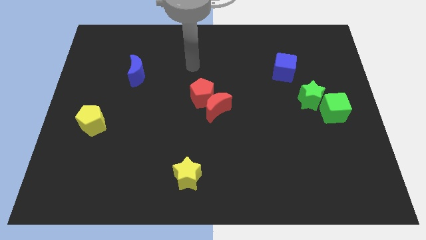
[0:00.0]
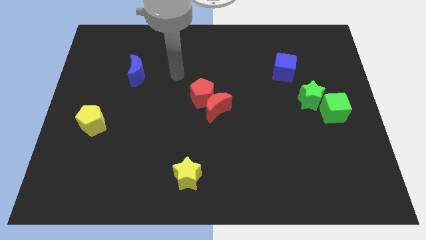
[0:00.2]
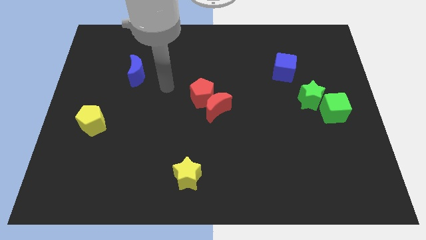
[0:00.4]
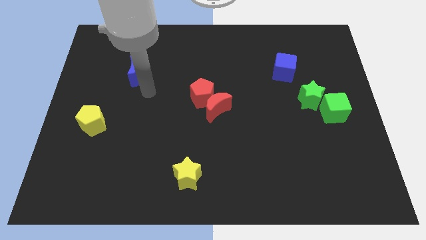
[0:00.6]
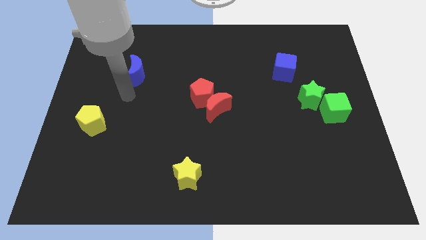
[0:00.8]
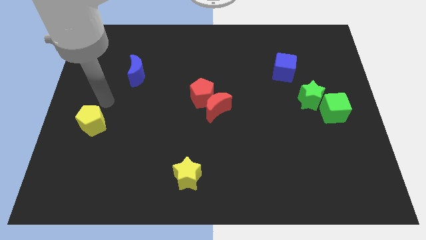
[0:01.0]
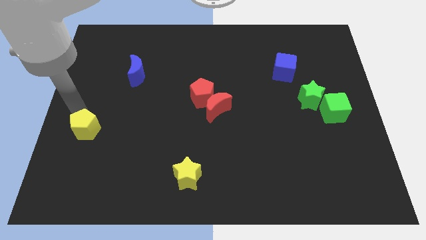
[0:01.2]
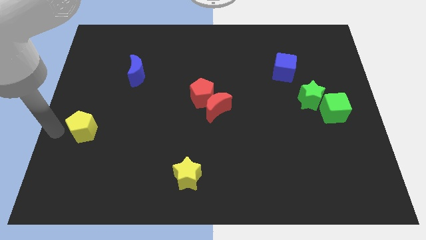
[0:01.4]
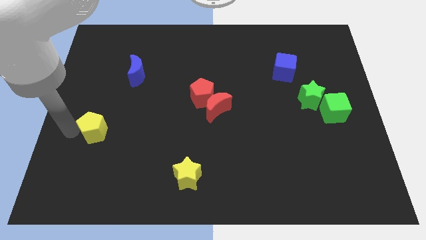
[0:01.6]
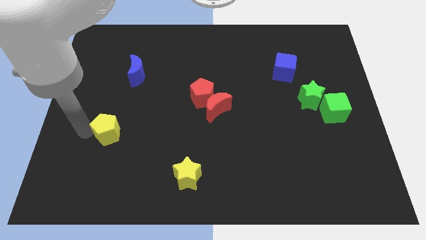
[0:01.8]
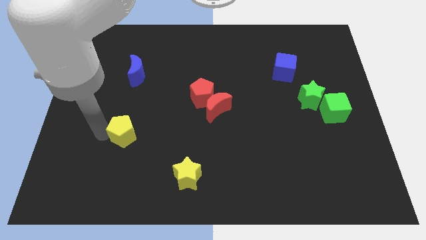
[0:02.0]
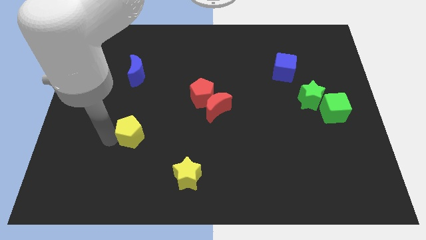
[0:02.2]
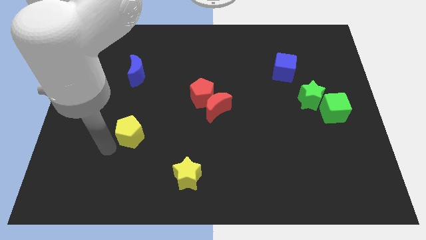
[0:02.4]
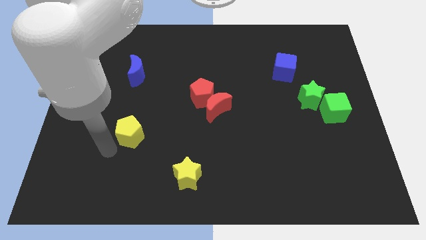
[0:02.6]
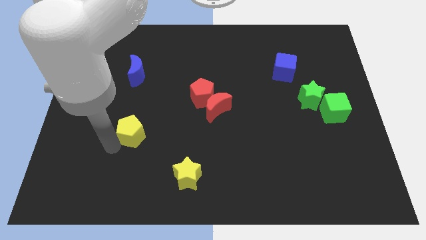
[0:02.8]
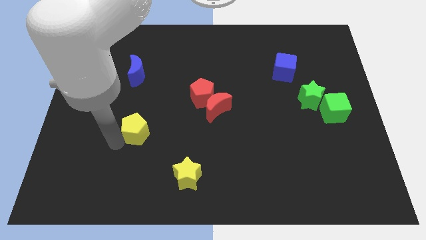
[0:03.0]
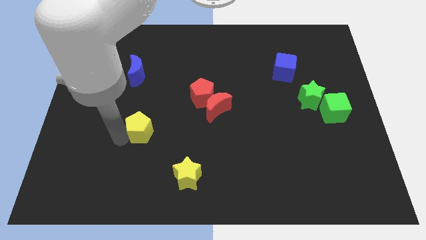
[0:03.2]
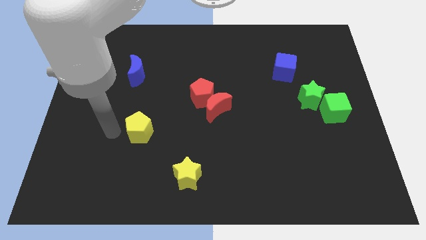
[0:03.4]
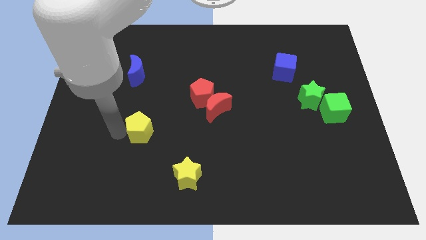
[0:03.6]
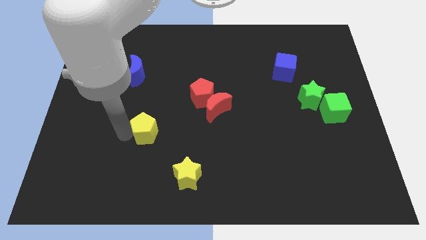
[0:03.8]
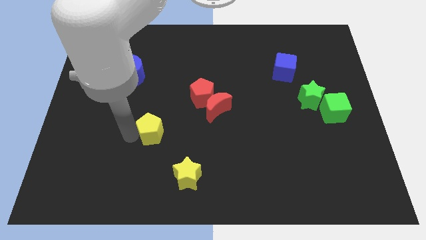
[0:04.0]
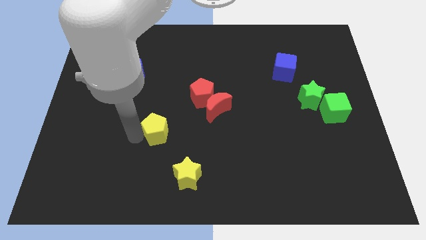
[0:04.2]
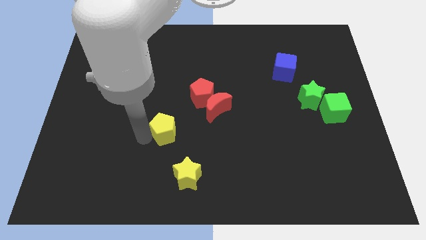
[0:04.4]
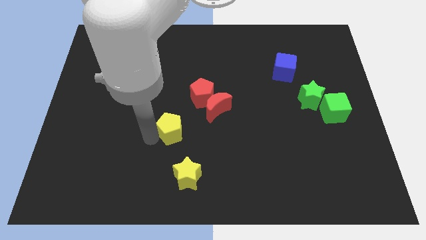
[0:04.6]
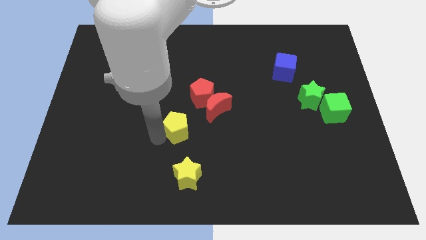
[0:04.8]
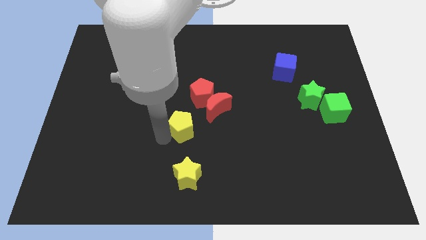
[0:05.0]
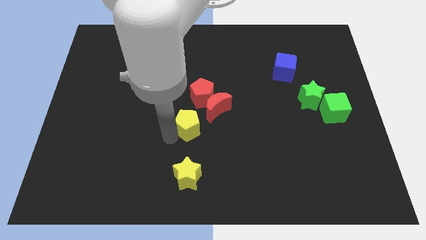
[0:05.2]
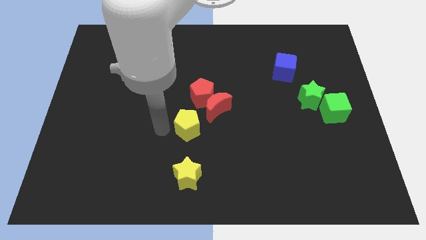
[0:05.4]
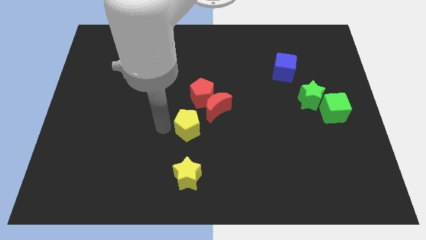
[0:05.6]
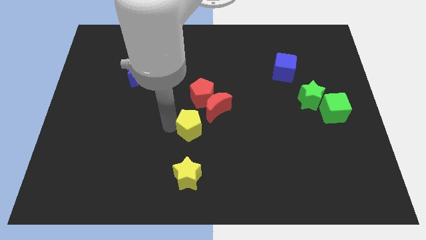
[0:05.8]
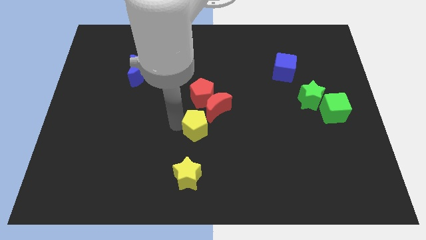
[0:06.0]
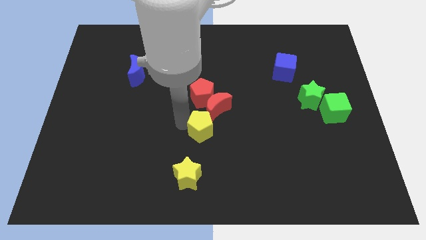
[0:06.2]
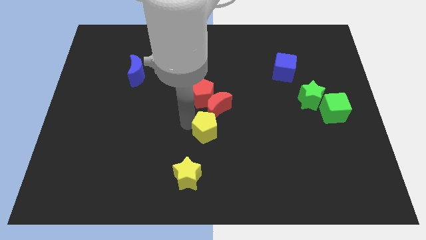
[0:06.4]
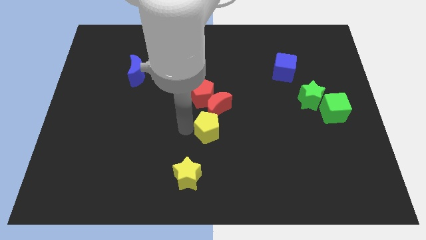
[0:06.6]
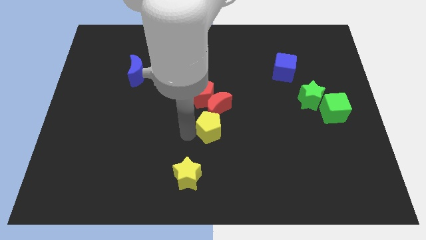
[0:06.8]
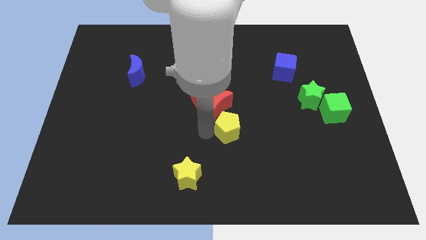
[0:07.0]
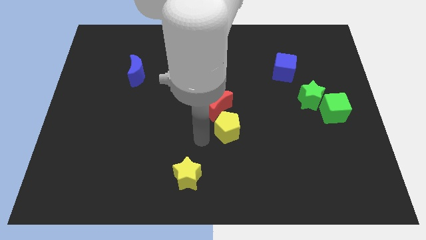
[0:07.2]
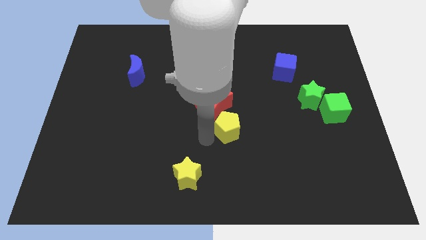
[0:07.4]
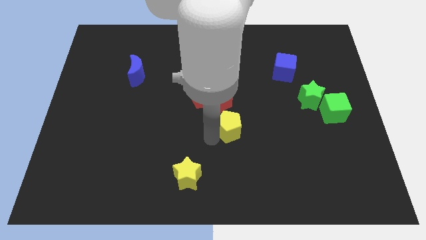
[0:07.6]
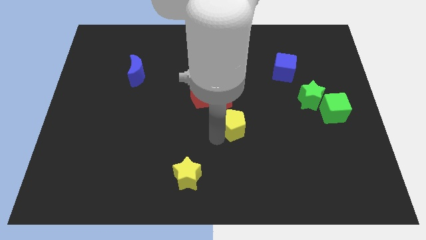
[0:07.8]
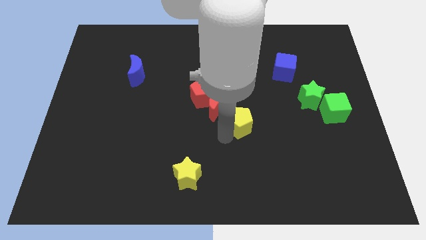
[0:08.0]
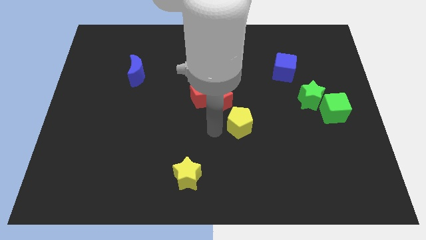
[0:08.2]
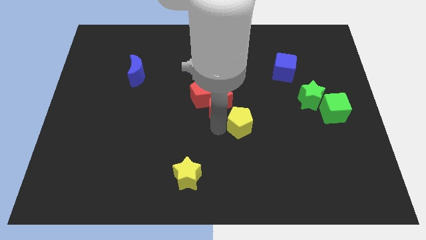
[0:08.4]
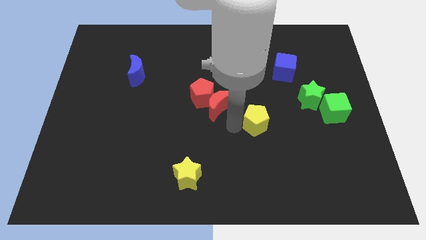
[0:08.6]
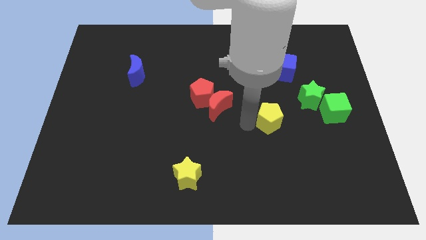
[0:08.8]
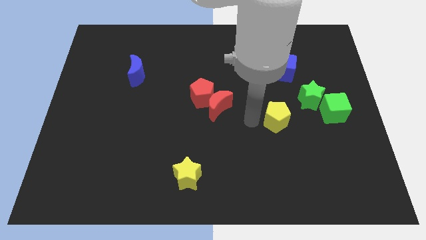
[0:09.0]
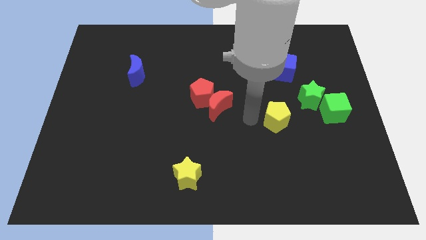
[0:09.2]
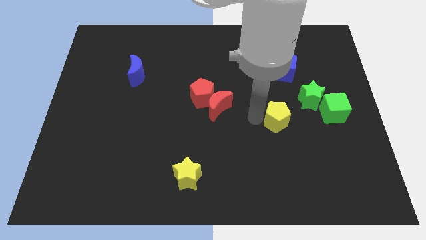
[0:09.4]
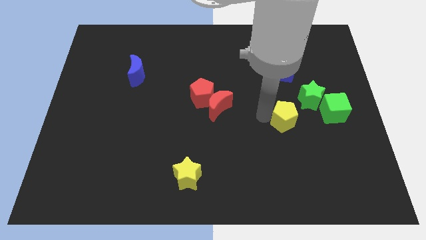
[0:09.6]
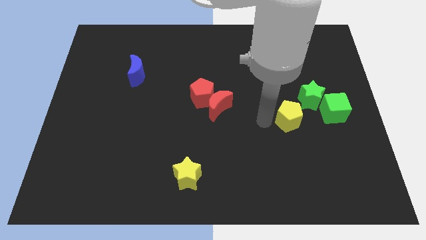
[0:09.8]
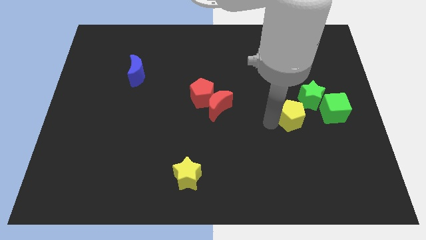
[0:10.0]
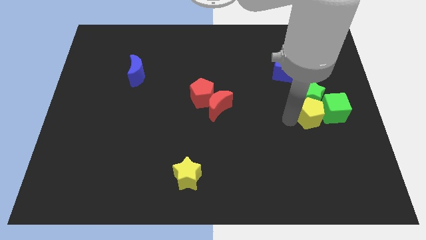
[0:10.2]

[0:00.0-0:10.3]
move the yellow pentagon to the green cube

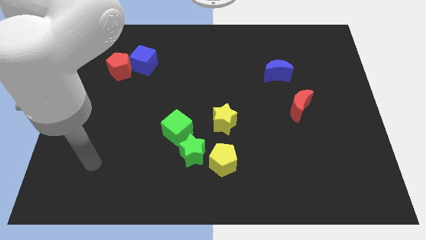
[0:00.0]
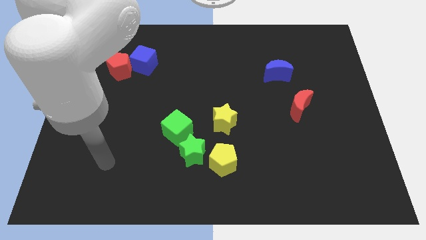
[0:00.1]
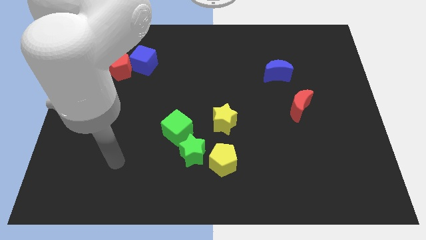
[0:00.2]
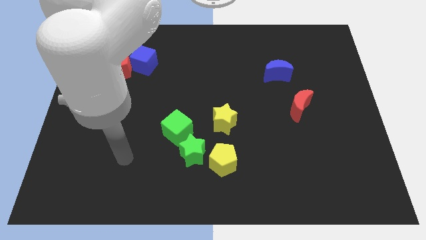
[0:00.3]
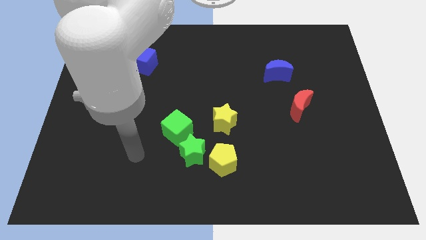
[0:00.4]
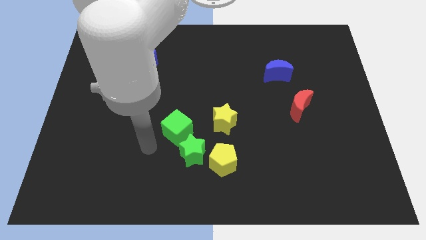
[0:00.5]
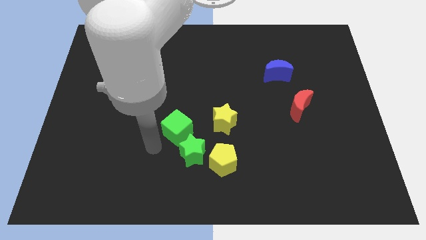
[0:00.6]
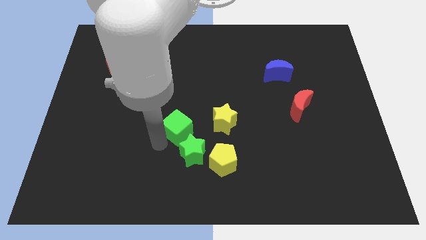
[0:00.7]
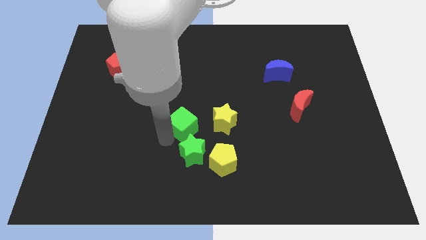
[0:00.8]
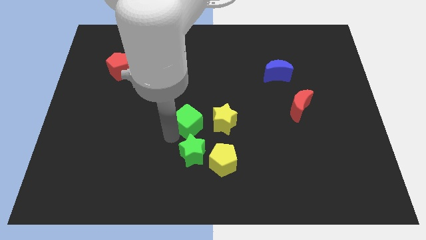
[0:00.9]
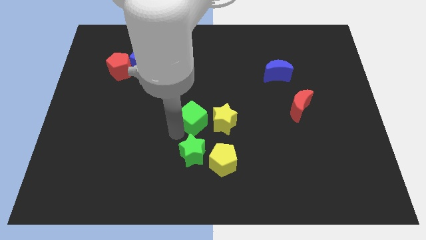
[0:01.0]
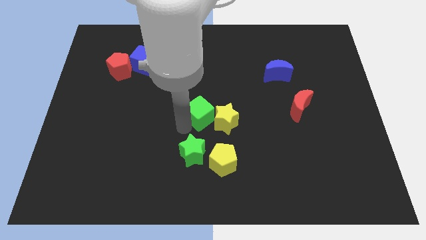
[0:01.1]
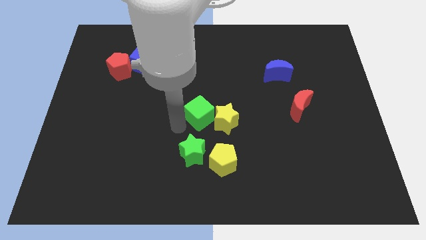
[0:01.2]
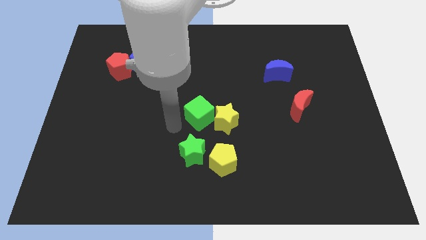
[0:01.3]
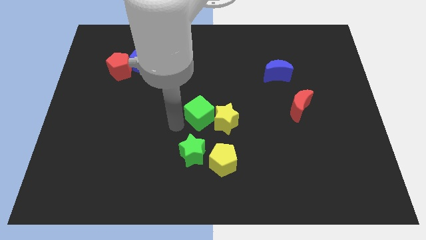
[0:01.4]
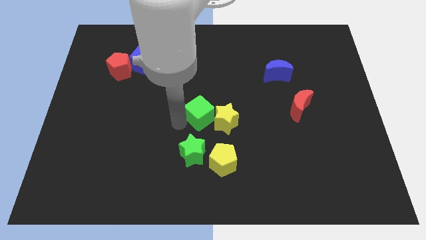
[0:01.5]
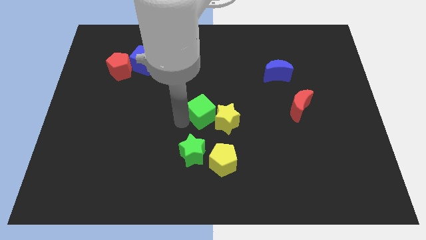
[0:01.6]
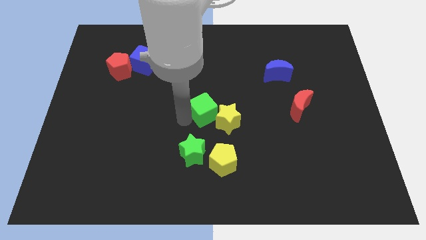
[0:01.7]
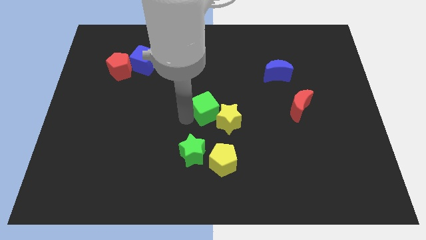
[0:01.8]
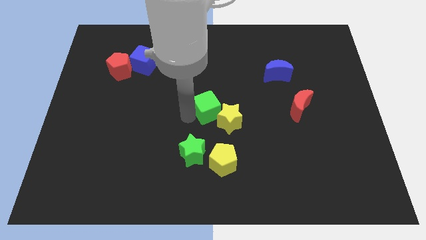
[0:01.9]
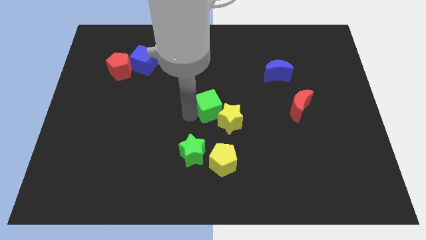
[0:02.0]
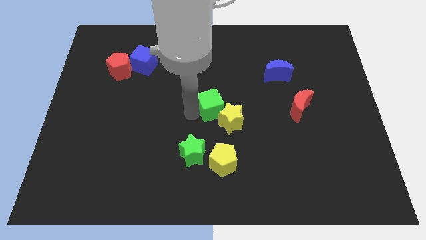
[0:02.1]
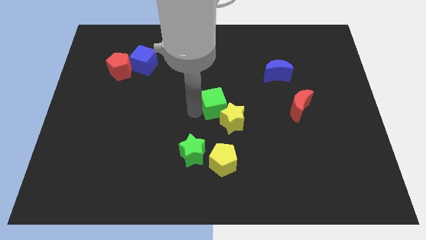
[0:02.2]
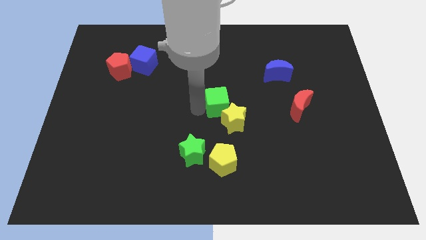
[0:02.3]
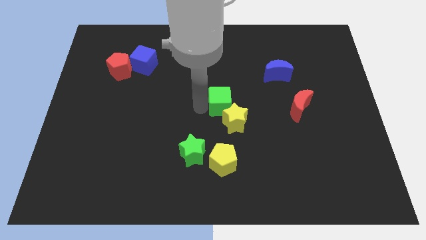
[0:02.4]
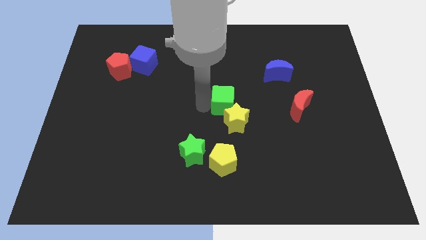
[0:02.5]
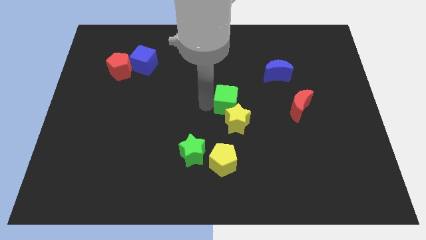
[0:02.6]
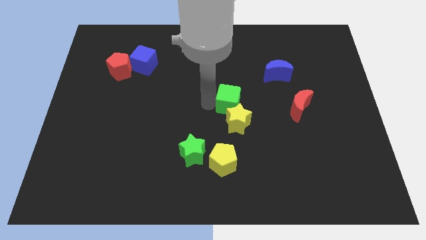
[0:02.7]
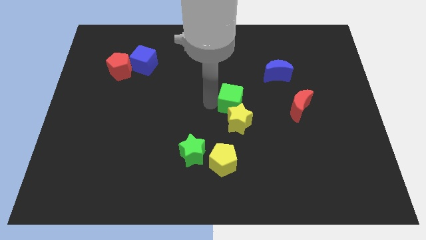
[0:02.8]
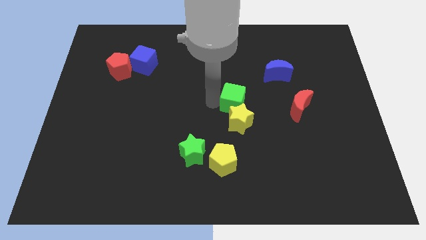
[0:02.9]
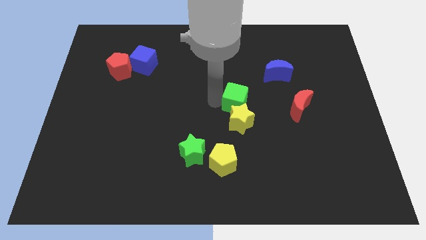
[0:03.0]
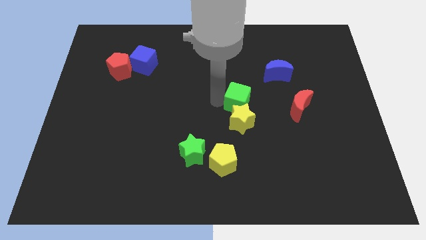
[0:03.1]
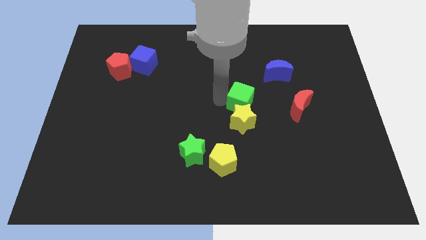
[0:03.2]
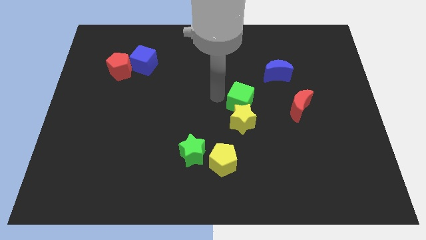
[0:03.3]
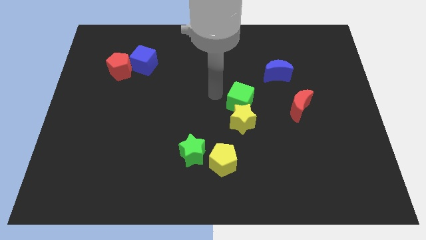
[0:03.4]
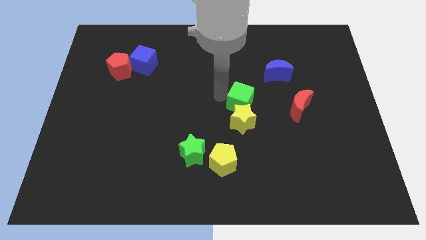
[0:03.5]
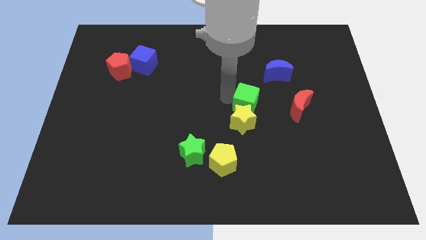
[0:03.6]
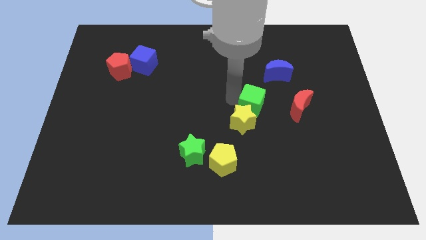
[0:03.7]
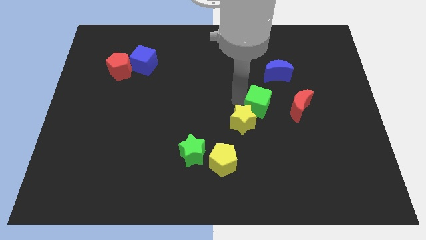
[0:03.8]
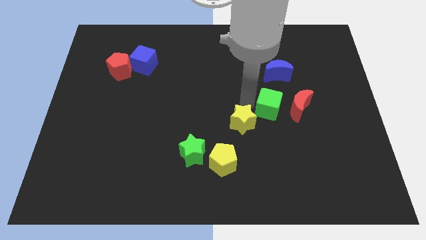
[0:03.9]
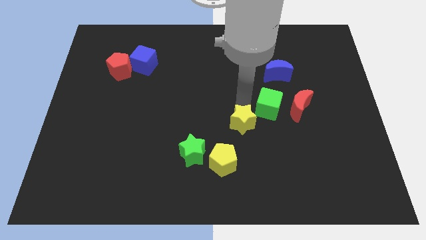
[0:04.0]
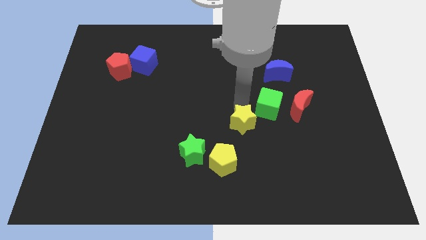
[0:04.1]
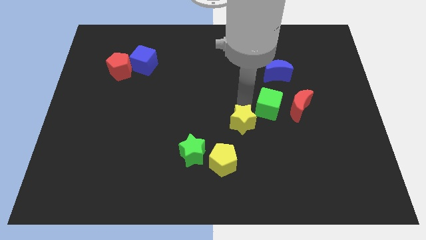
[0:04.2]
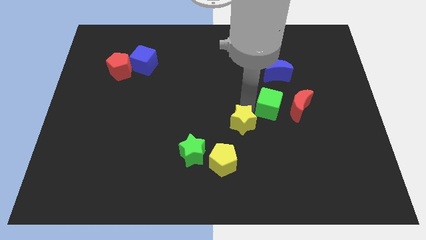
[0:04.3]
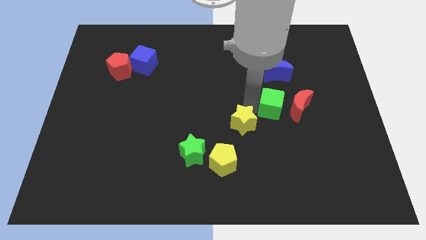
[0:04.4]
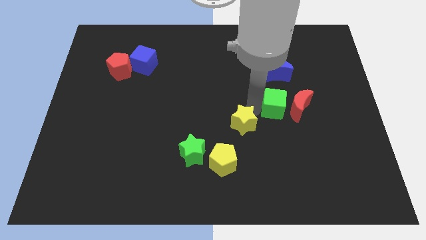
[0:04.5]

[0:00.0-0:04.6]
move the green cube to the red moon
